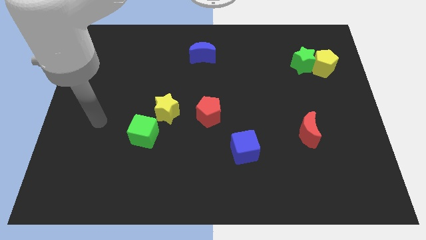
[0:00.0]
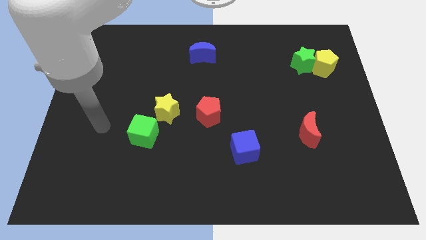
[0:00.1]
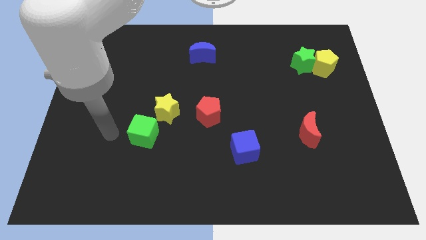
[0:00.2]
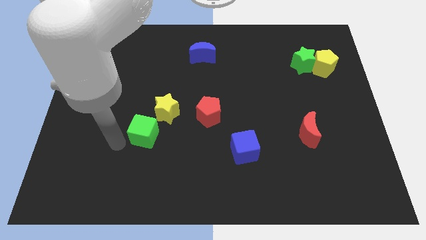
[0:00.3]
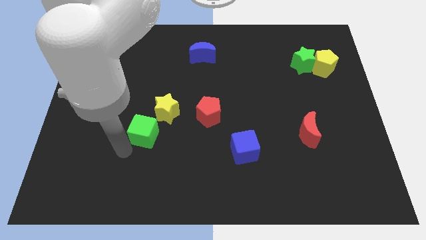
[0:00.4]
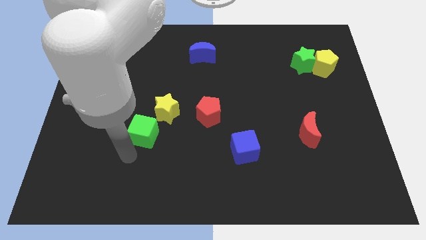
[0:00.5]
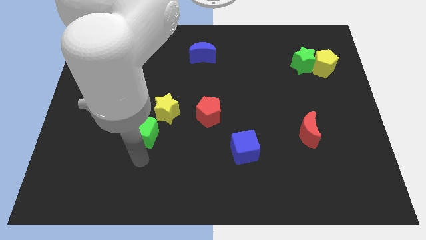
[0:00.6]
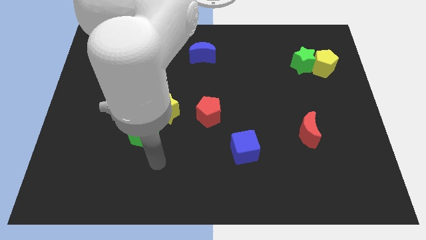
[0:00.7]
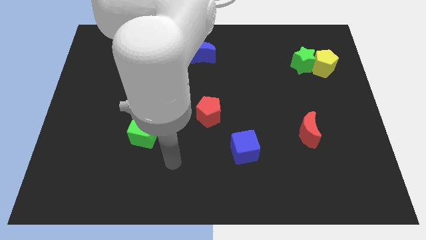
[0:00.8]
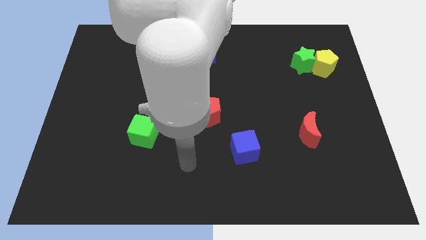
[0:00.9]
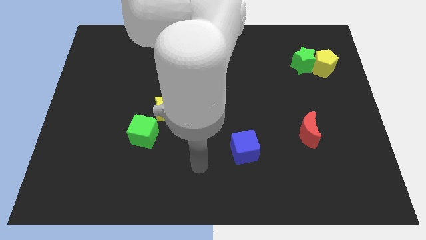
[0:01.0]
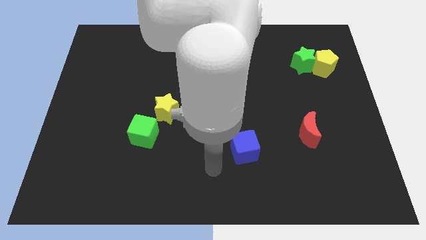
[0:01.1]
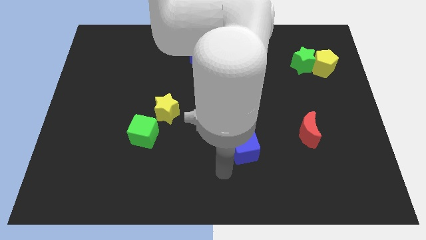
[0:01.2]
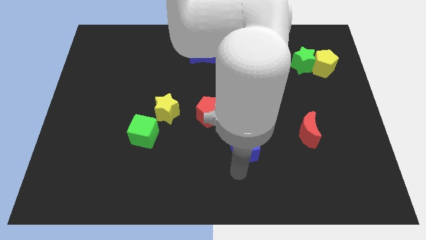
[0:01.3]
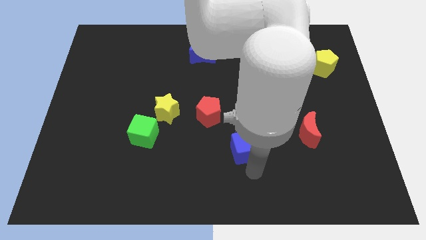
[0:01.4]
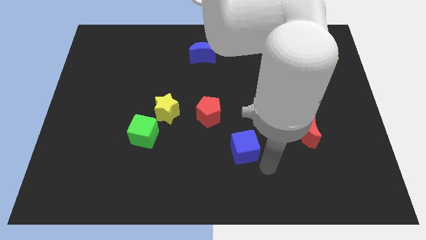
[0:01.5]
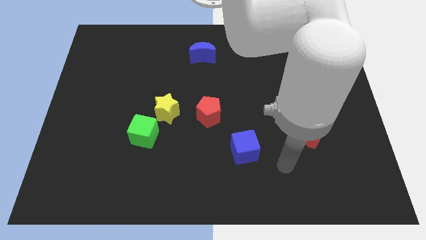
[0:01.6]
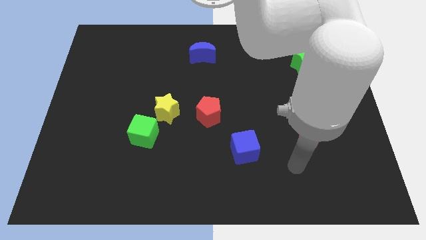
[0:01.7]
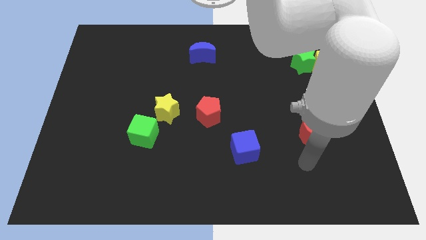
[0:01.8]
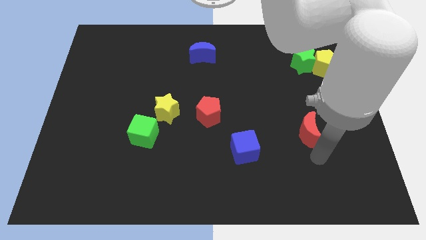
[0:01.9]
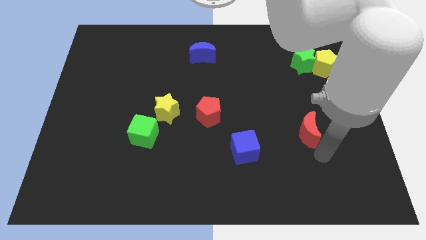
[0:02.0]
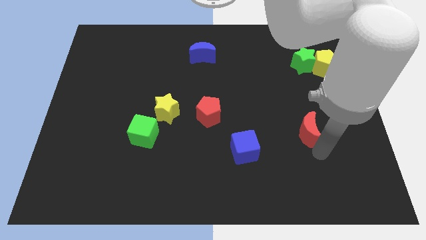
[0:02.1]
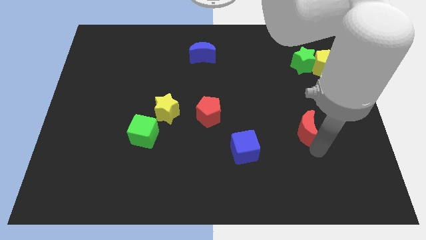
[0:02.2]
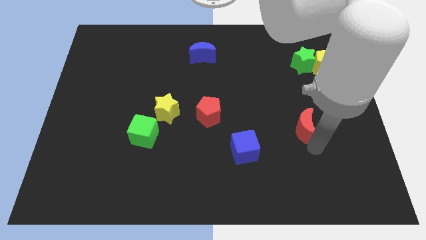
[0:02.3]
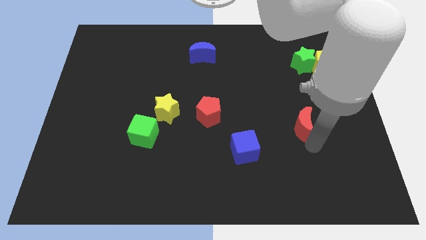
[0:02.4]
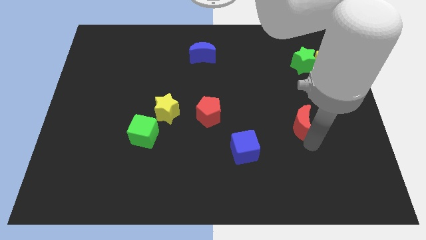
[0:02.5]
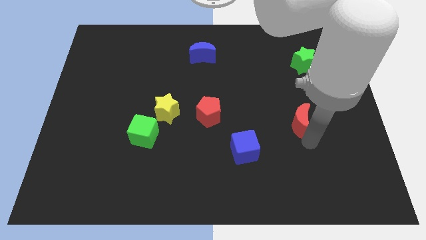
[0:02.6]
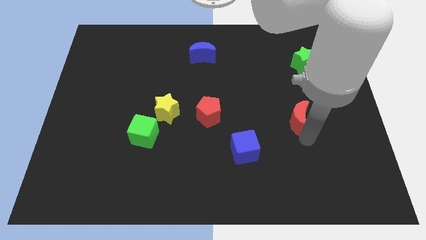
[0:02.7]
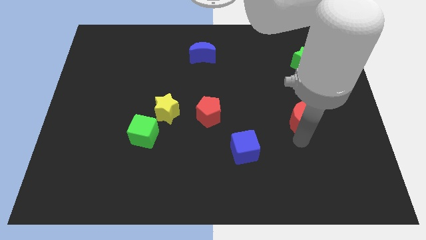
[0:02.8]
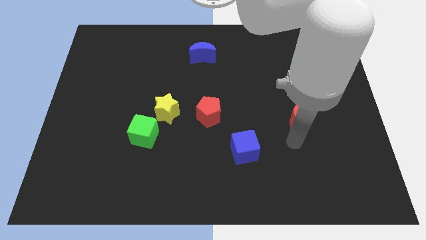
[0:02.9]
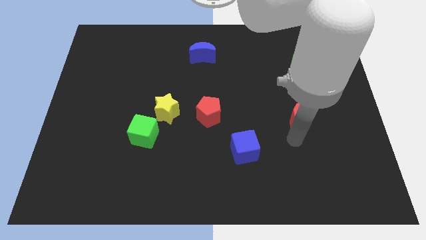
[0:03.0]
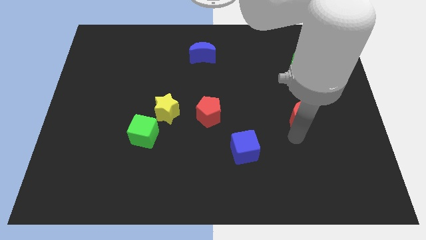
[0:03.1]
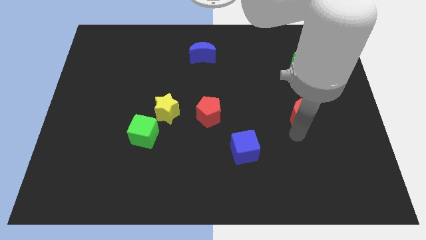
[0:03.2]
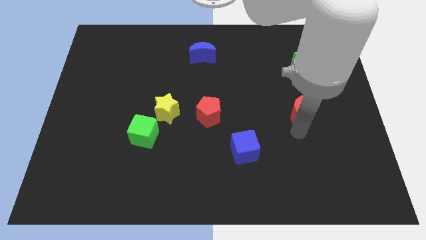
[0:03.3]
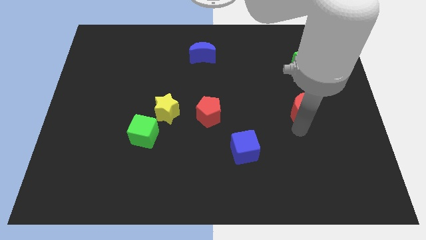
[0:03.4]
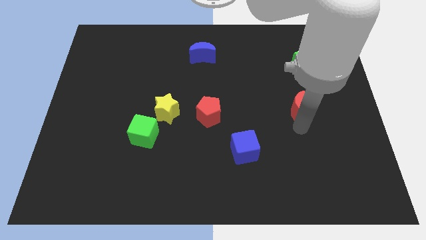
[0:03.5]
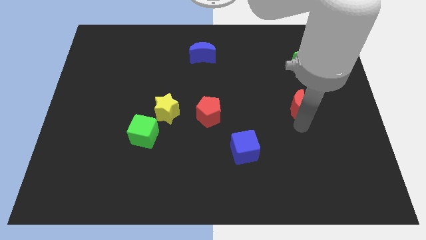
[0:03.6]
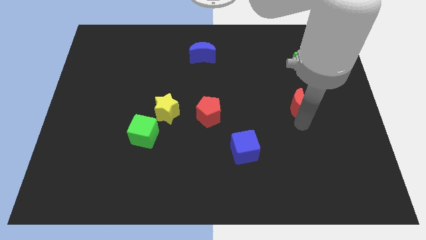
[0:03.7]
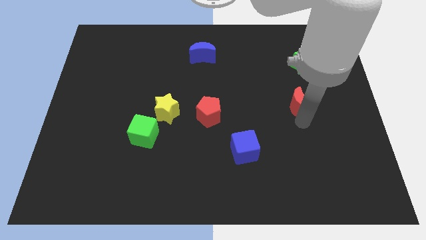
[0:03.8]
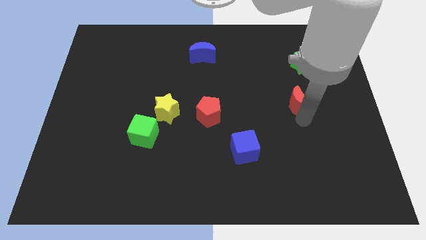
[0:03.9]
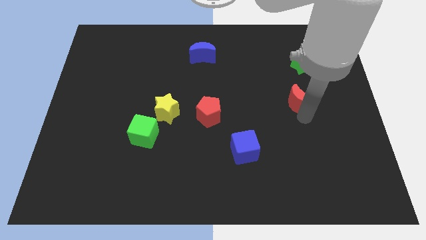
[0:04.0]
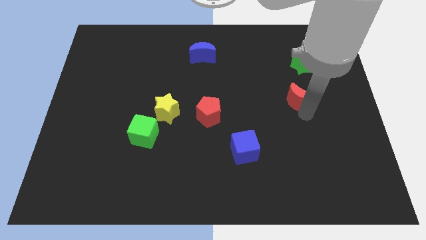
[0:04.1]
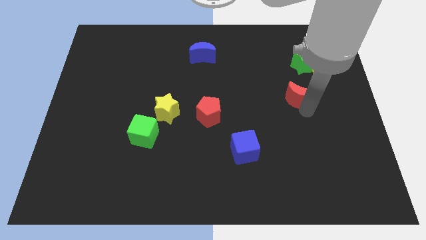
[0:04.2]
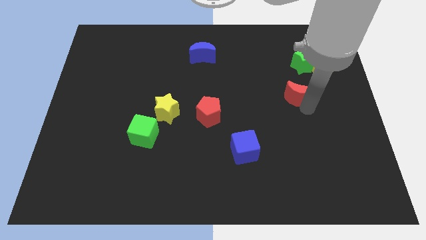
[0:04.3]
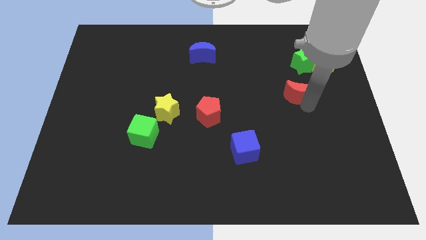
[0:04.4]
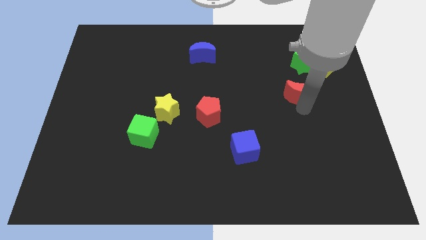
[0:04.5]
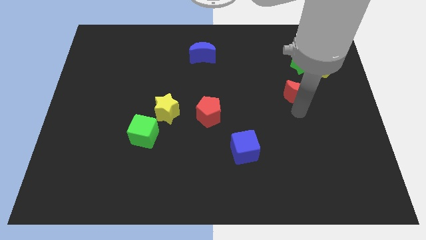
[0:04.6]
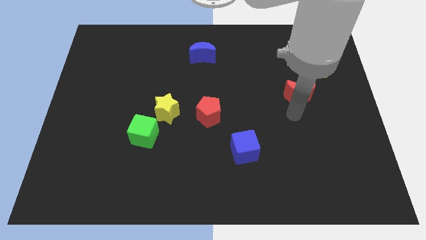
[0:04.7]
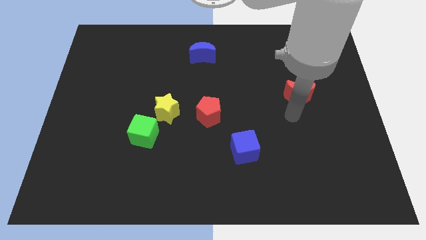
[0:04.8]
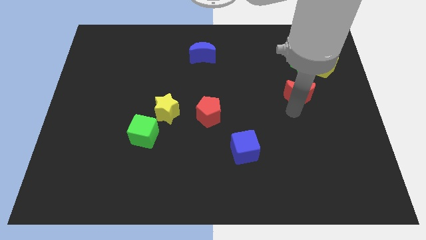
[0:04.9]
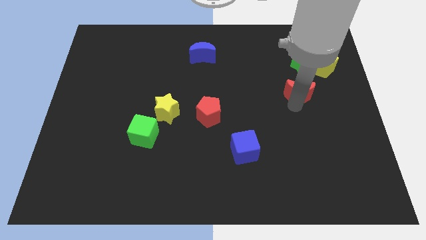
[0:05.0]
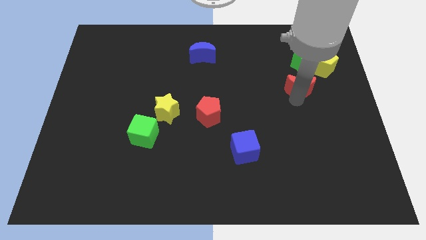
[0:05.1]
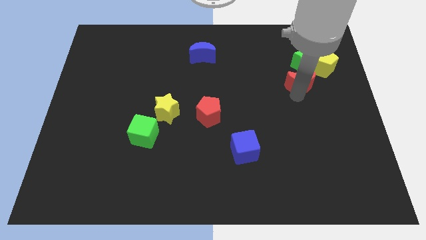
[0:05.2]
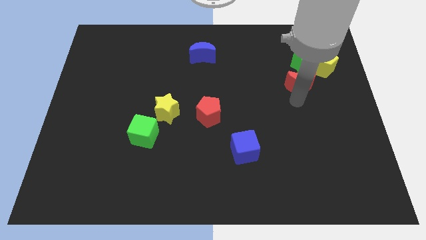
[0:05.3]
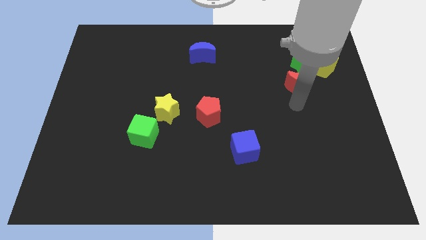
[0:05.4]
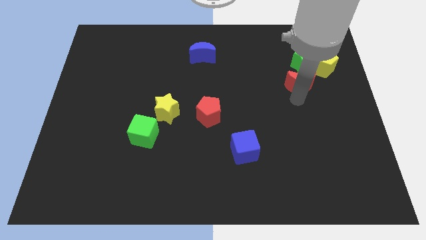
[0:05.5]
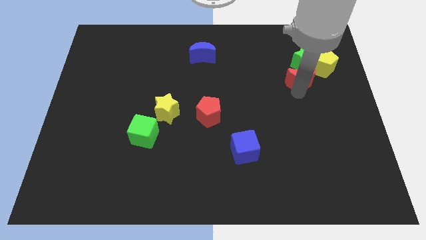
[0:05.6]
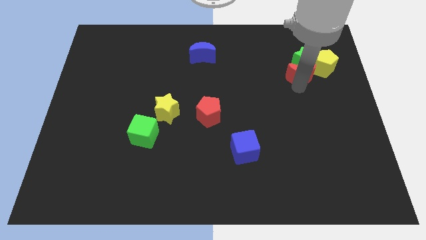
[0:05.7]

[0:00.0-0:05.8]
put the red moon to the green star

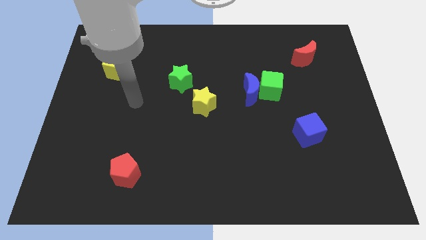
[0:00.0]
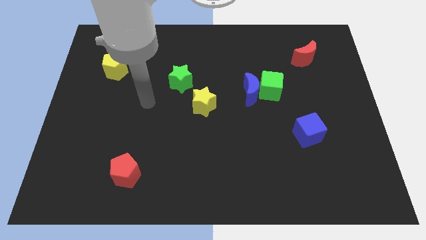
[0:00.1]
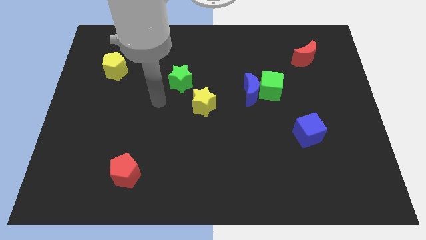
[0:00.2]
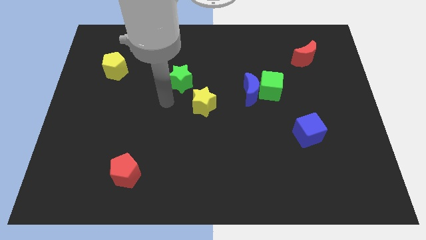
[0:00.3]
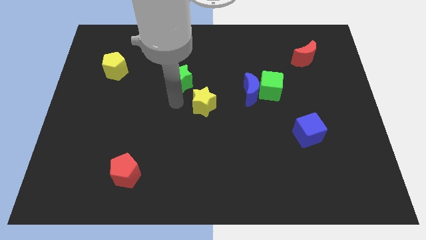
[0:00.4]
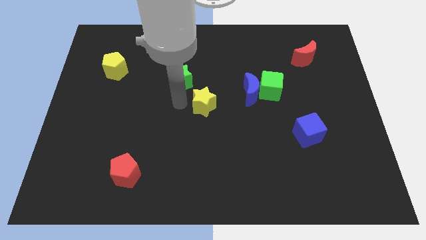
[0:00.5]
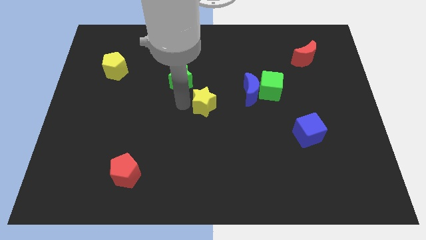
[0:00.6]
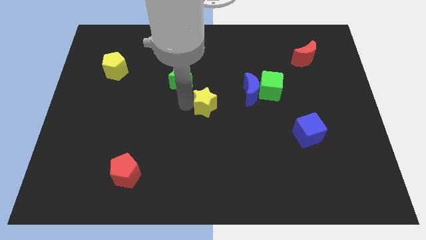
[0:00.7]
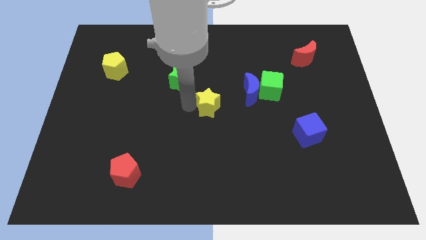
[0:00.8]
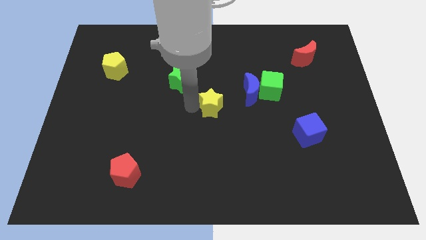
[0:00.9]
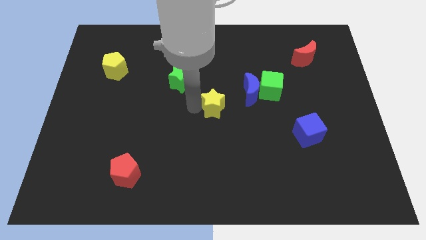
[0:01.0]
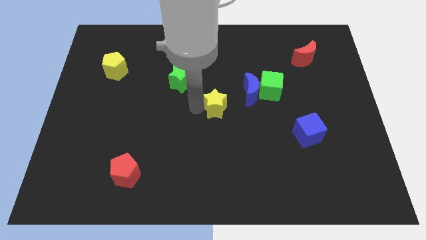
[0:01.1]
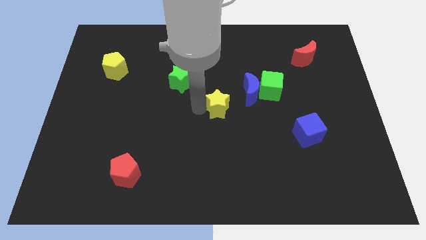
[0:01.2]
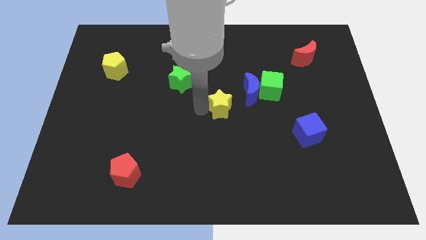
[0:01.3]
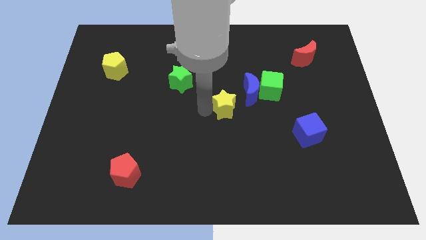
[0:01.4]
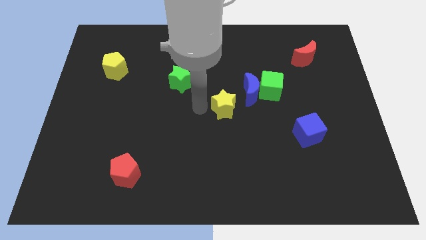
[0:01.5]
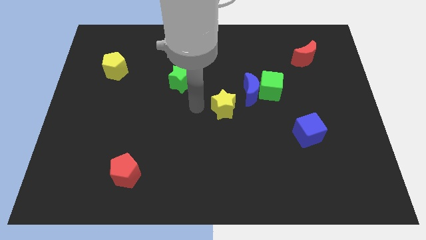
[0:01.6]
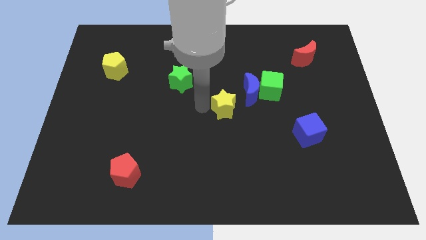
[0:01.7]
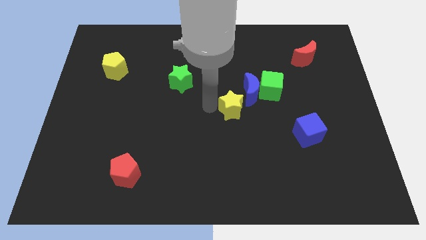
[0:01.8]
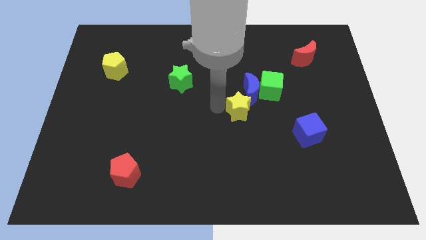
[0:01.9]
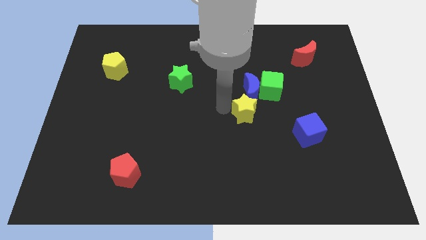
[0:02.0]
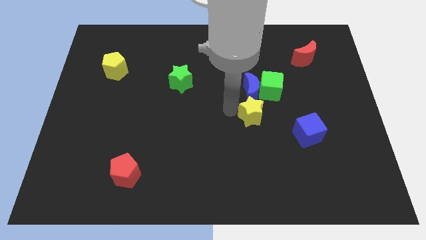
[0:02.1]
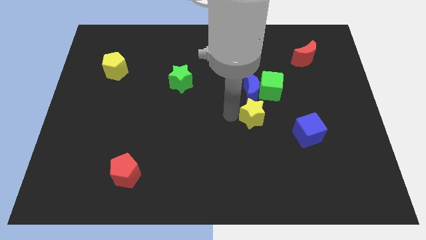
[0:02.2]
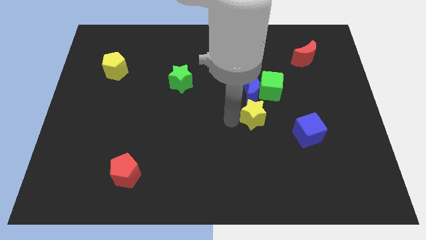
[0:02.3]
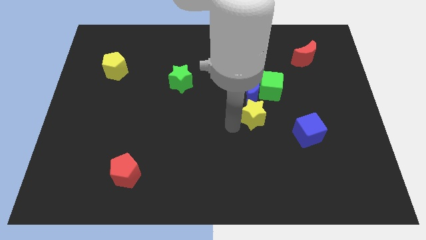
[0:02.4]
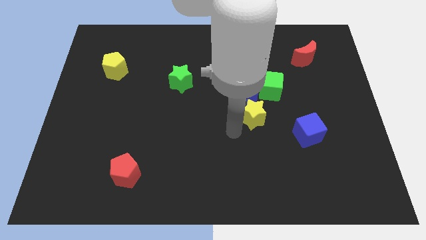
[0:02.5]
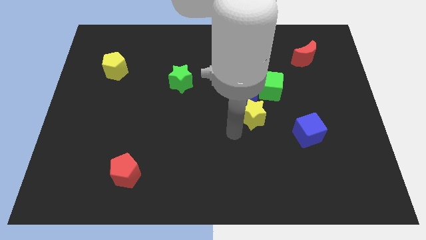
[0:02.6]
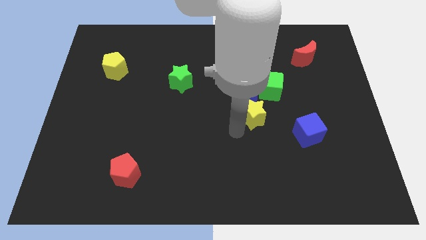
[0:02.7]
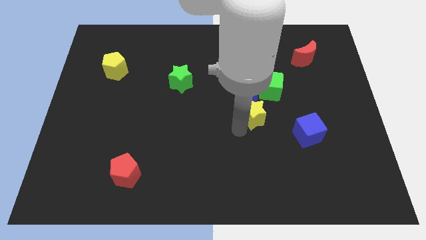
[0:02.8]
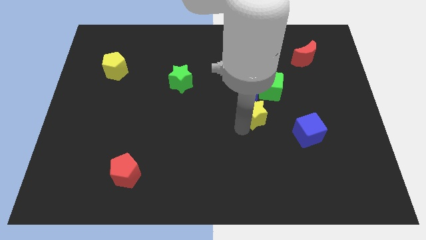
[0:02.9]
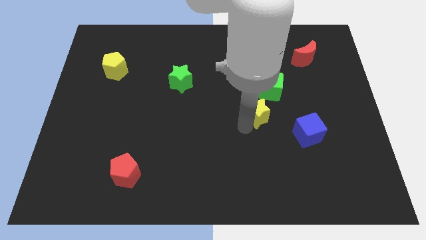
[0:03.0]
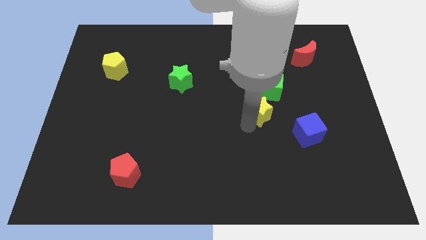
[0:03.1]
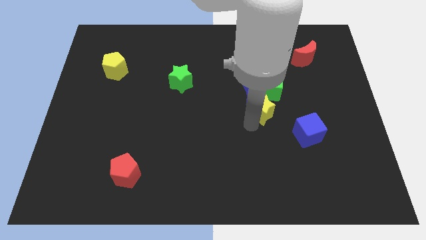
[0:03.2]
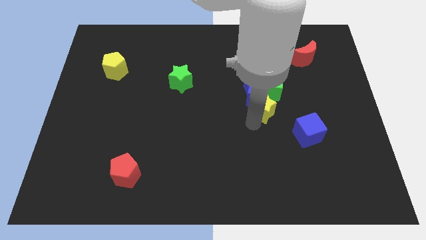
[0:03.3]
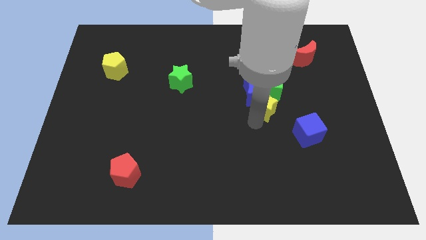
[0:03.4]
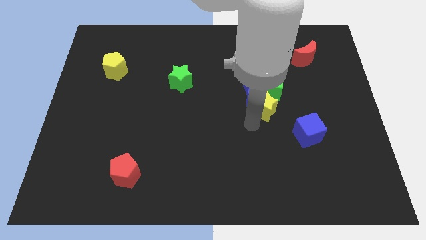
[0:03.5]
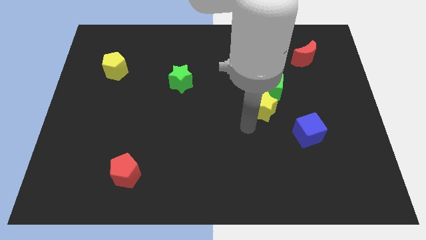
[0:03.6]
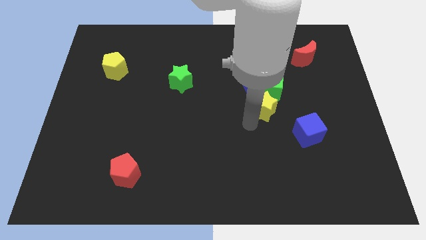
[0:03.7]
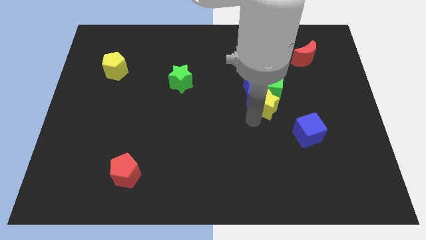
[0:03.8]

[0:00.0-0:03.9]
move the yellow star close to the green cube
